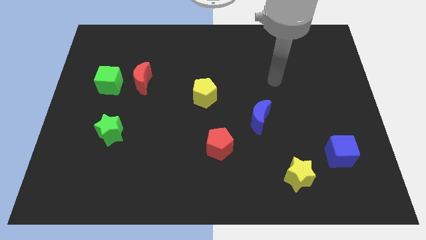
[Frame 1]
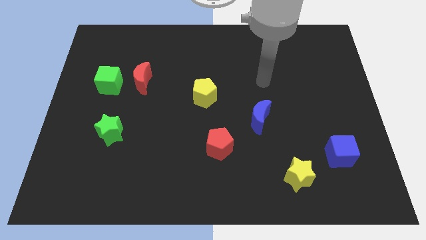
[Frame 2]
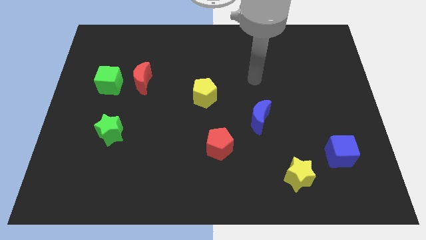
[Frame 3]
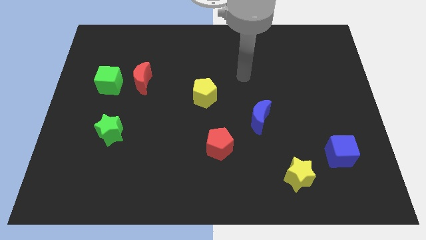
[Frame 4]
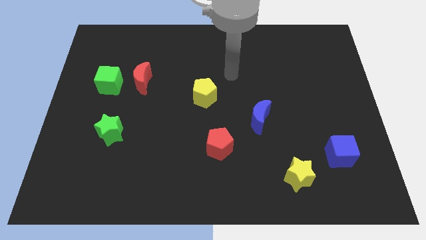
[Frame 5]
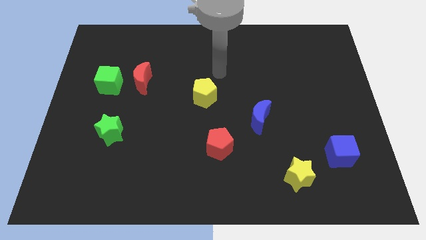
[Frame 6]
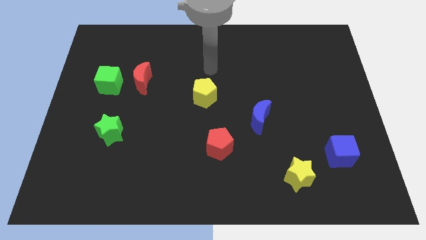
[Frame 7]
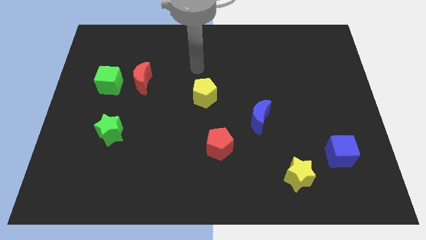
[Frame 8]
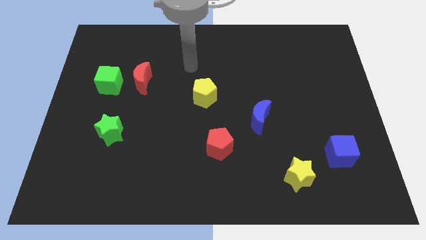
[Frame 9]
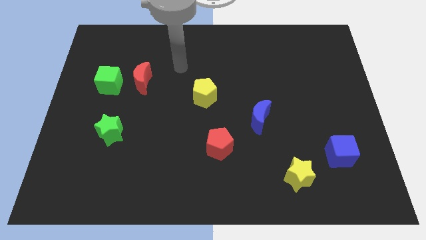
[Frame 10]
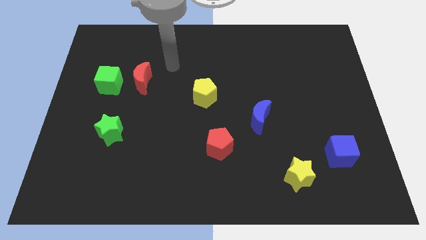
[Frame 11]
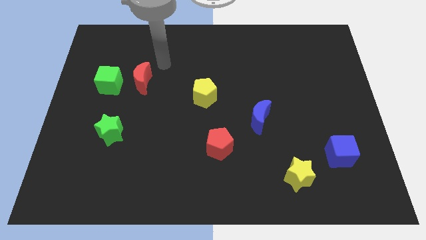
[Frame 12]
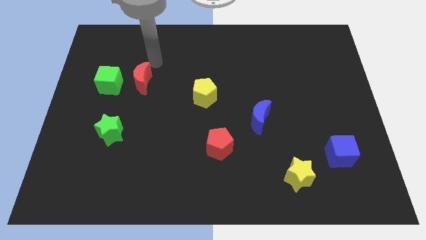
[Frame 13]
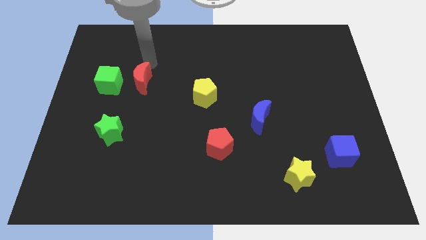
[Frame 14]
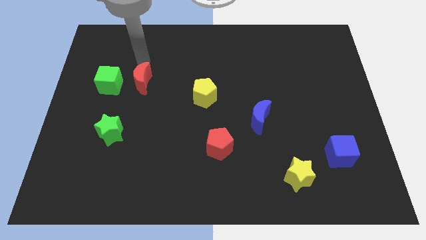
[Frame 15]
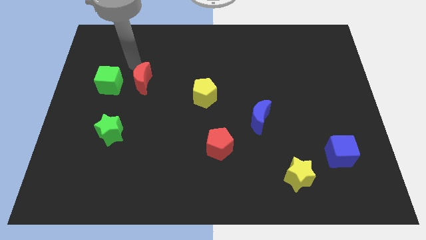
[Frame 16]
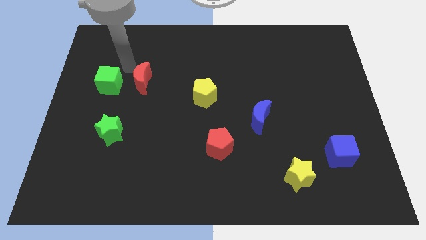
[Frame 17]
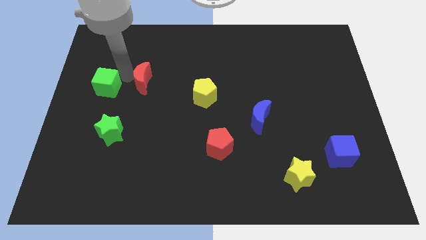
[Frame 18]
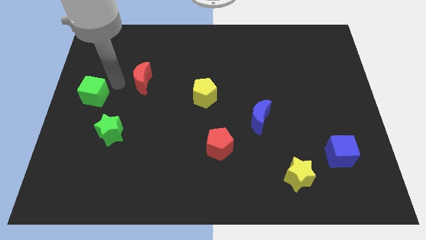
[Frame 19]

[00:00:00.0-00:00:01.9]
move the red moon away from the green cube

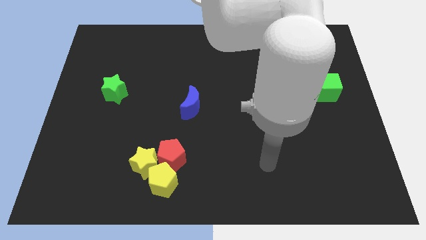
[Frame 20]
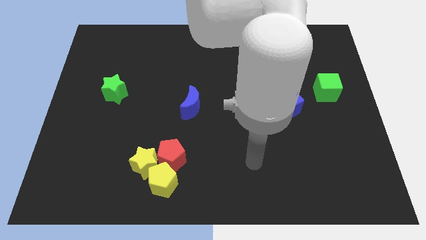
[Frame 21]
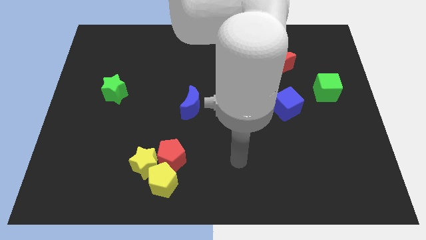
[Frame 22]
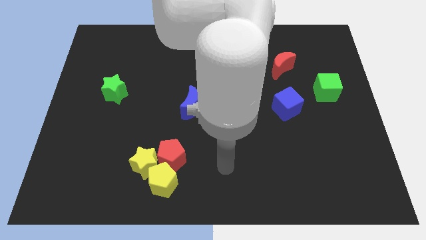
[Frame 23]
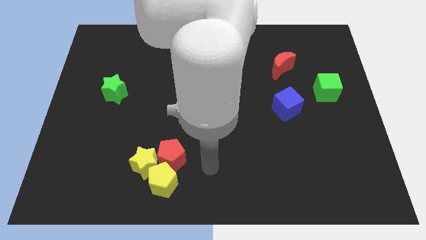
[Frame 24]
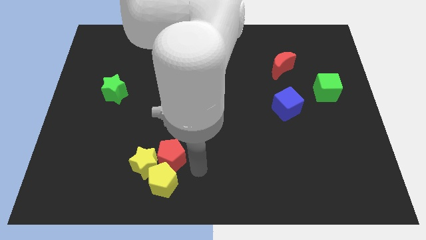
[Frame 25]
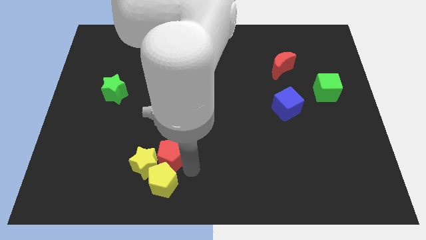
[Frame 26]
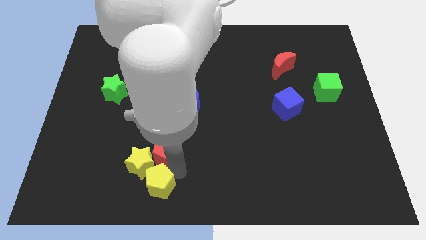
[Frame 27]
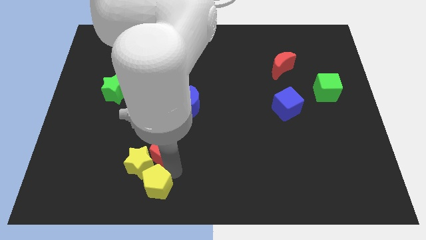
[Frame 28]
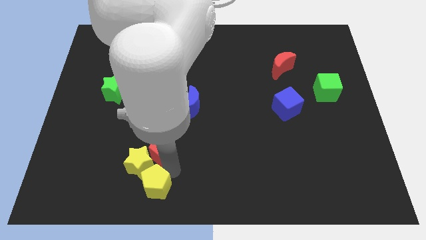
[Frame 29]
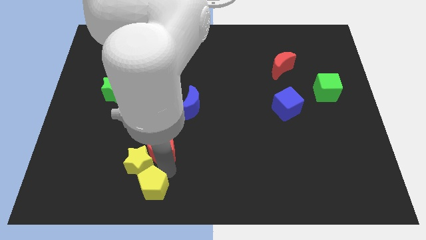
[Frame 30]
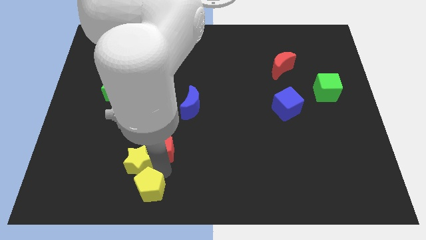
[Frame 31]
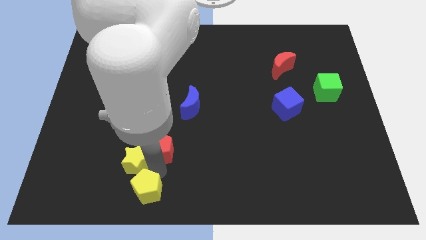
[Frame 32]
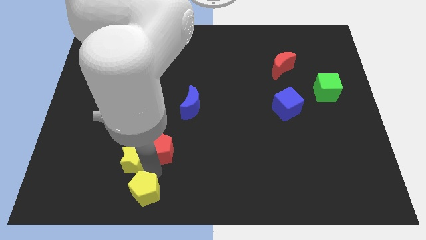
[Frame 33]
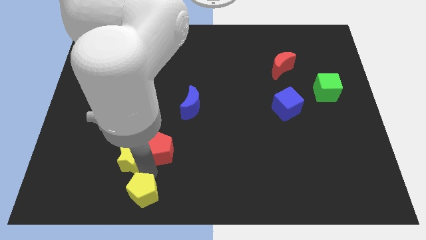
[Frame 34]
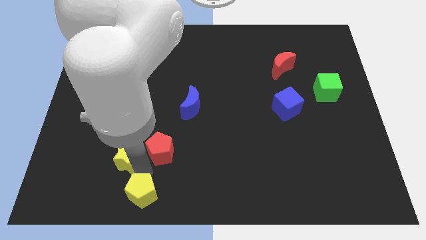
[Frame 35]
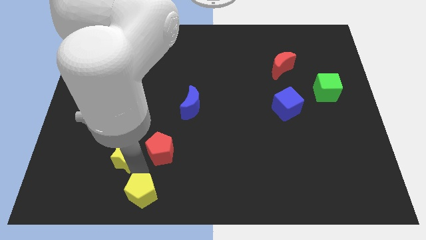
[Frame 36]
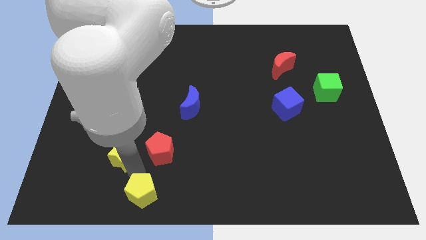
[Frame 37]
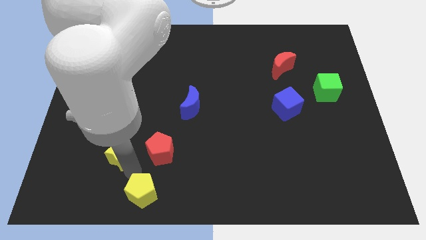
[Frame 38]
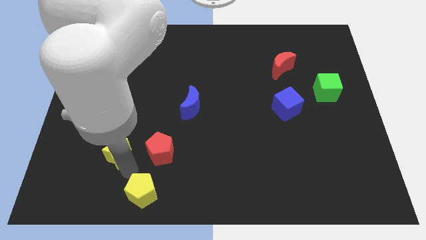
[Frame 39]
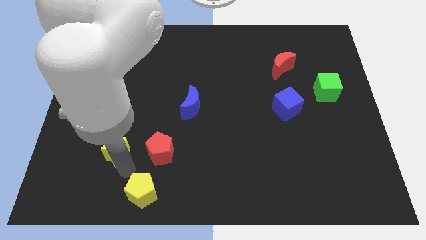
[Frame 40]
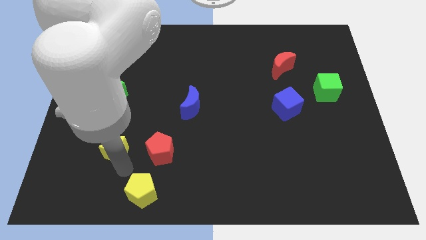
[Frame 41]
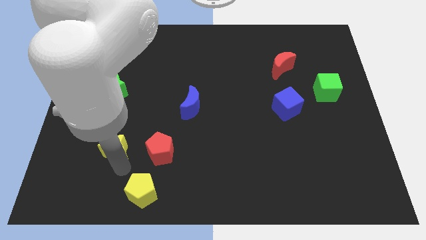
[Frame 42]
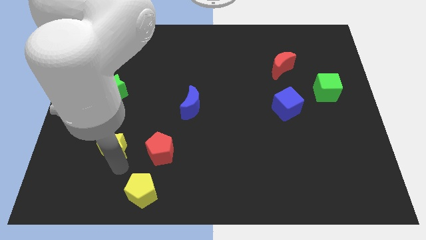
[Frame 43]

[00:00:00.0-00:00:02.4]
pull the yellow star apart from the yellow pentagon and red pentagon

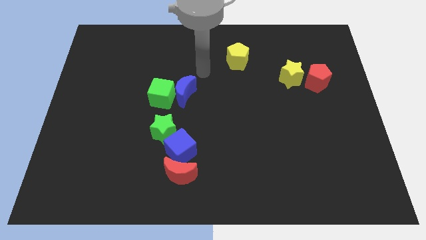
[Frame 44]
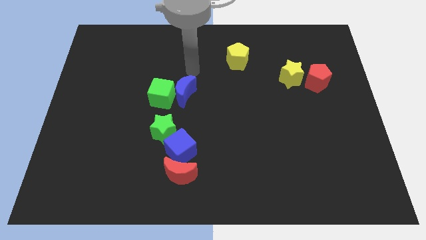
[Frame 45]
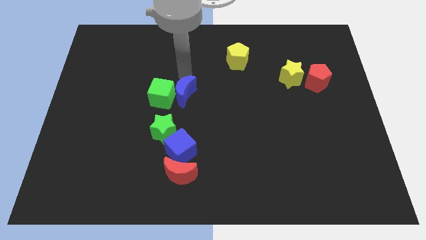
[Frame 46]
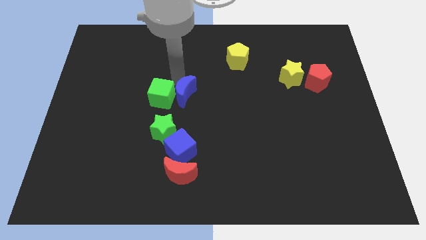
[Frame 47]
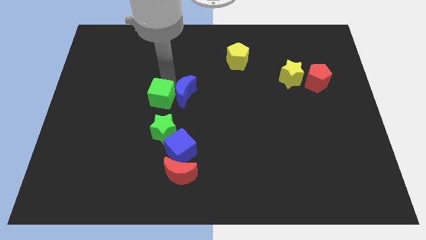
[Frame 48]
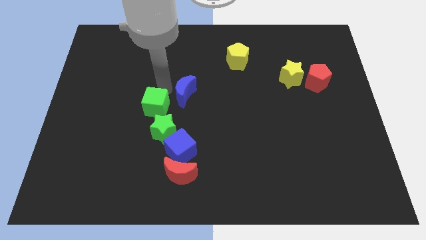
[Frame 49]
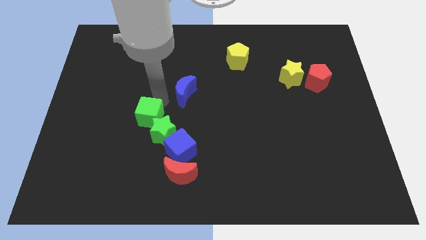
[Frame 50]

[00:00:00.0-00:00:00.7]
move the blue moon away from the green cube

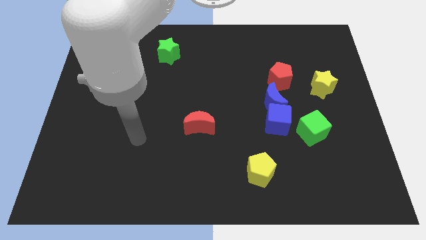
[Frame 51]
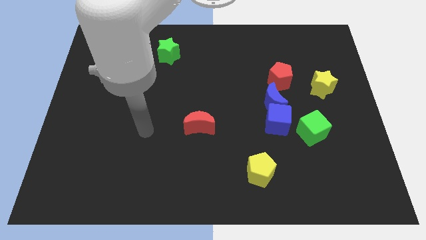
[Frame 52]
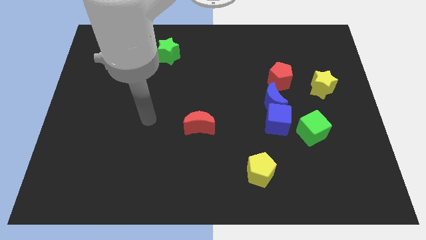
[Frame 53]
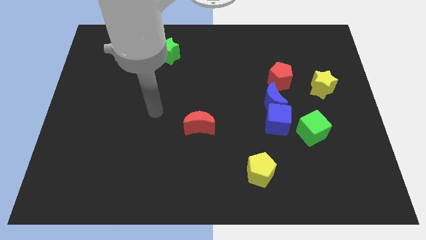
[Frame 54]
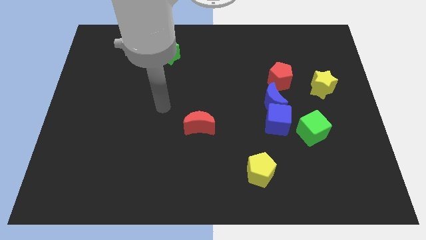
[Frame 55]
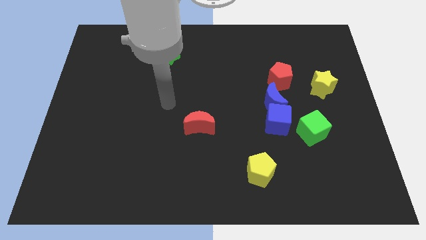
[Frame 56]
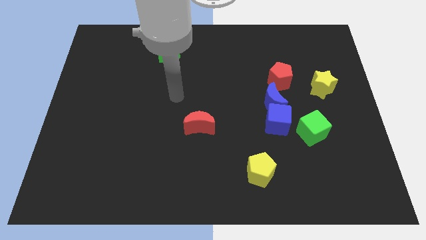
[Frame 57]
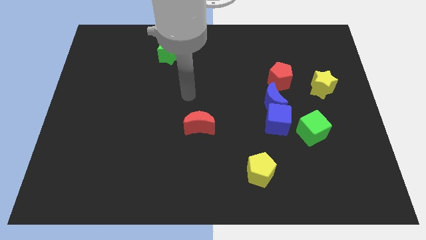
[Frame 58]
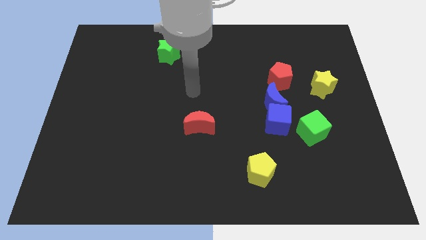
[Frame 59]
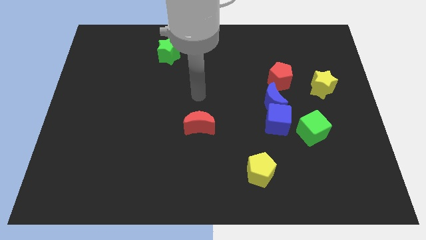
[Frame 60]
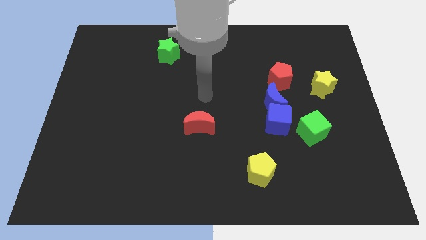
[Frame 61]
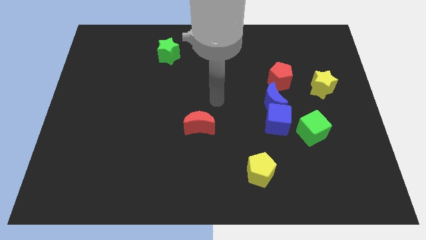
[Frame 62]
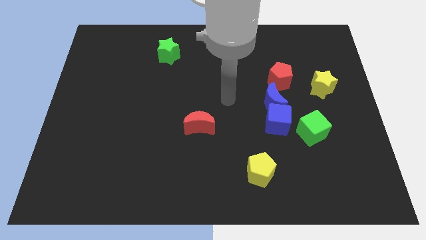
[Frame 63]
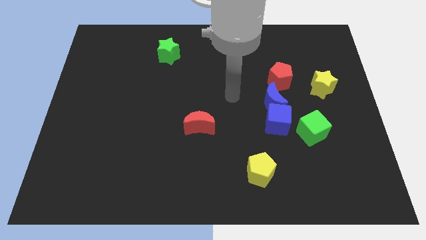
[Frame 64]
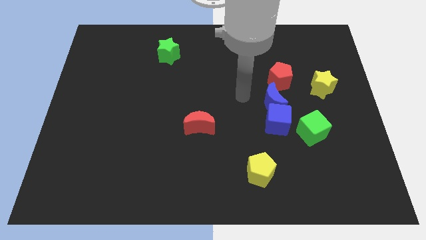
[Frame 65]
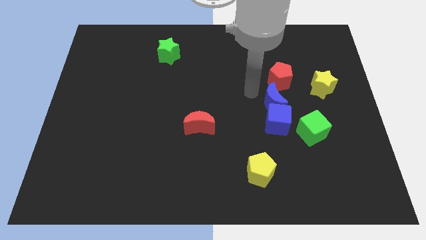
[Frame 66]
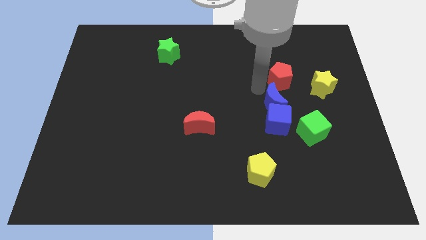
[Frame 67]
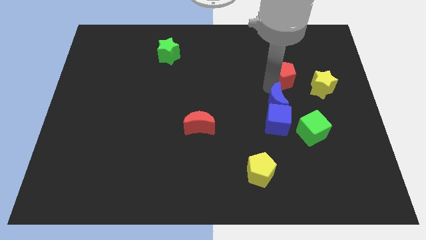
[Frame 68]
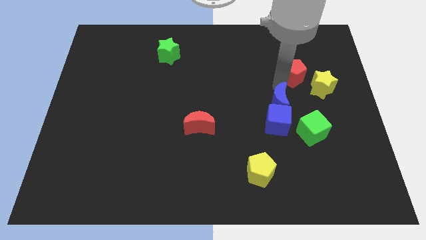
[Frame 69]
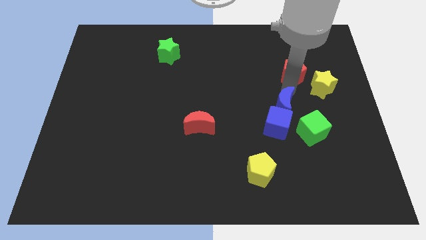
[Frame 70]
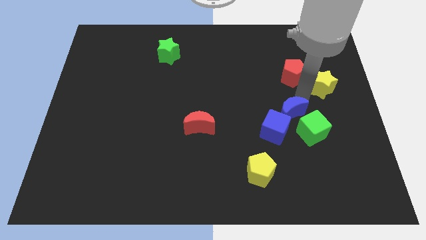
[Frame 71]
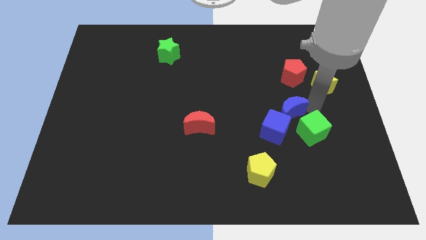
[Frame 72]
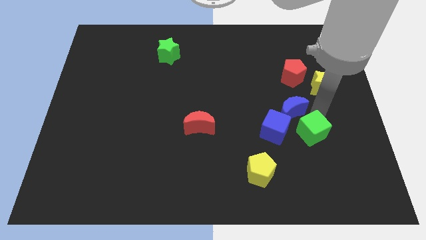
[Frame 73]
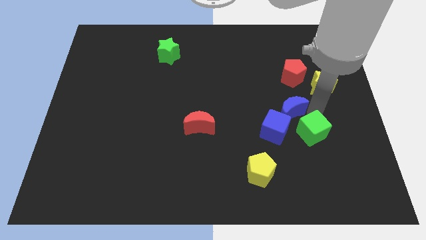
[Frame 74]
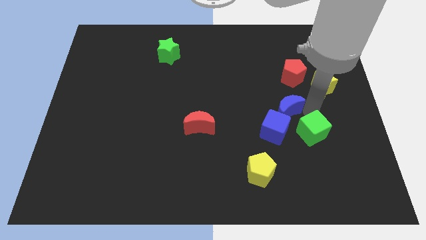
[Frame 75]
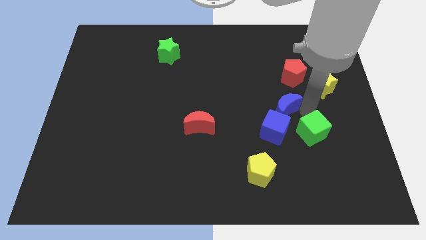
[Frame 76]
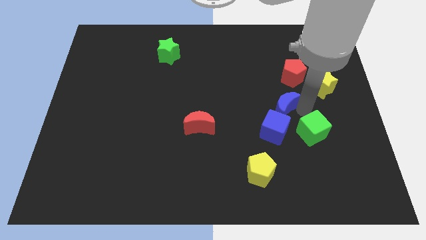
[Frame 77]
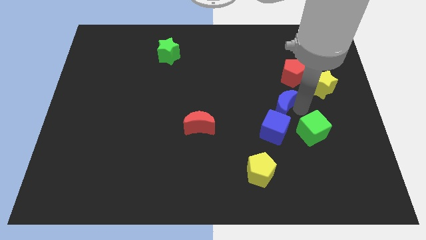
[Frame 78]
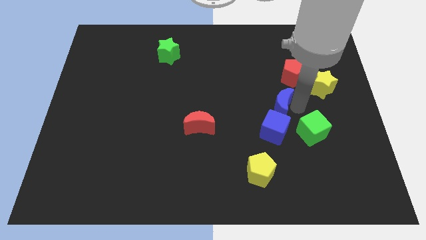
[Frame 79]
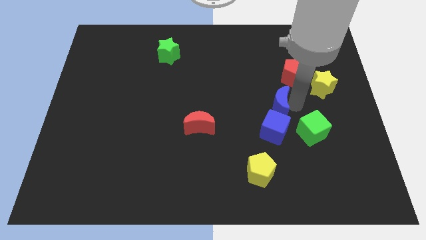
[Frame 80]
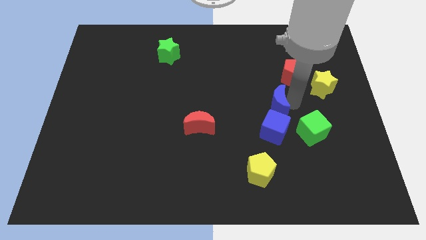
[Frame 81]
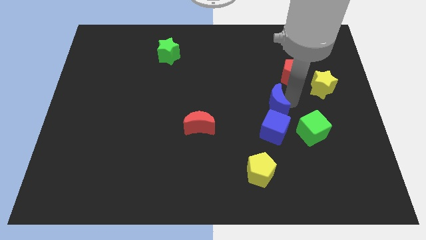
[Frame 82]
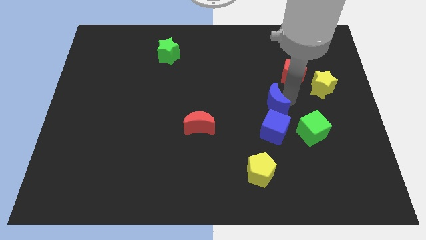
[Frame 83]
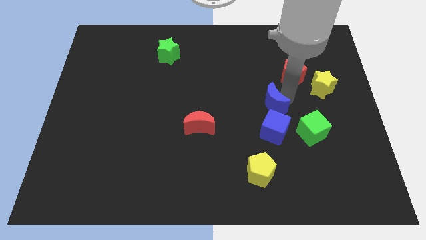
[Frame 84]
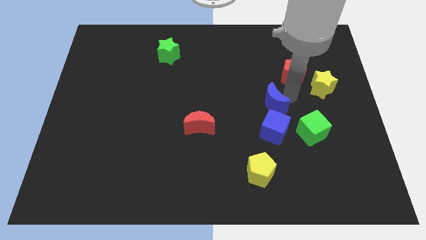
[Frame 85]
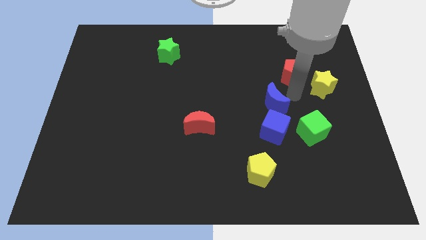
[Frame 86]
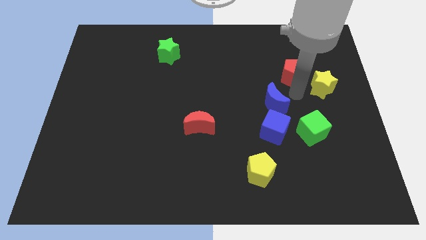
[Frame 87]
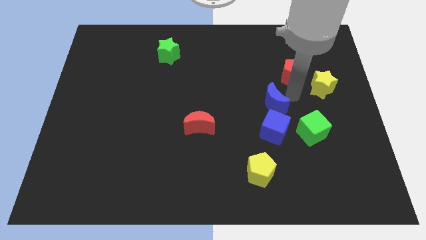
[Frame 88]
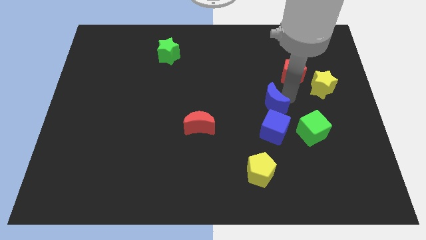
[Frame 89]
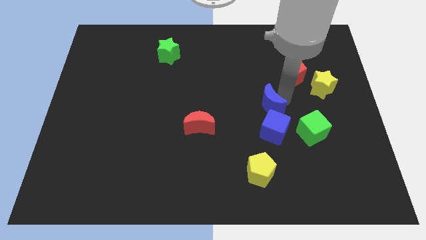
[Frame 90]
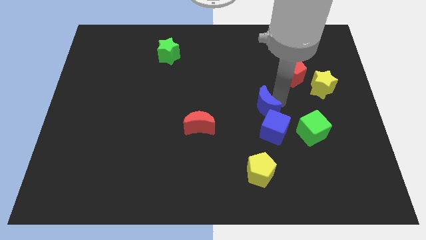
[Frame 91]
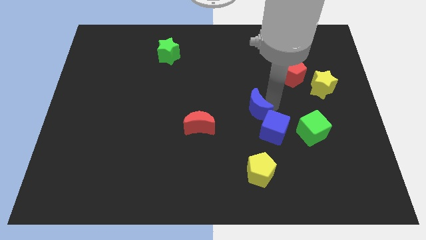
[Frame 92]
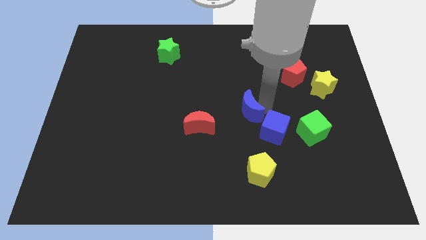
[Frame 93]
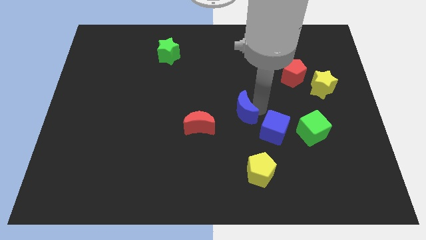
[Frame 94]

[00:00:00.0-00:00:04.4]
separate the blue moon from the blue cube and red pentagon
